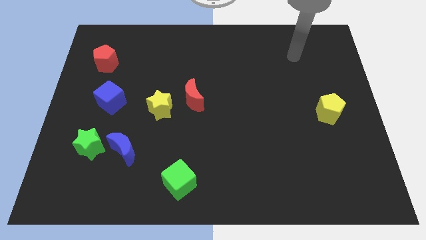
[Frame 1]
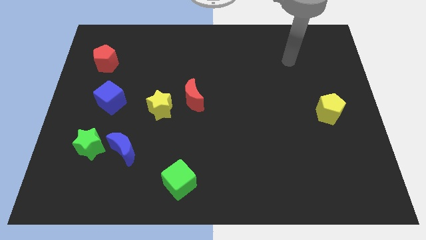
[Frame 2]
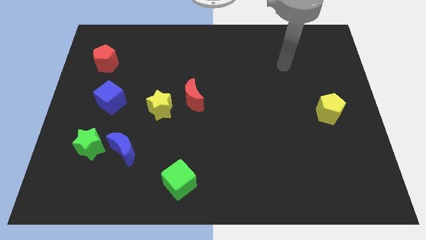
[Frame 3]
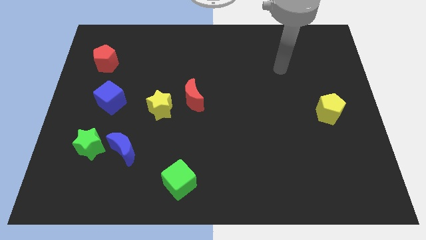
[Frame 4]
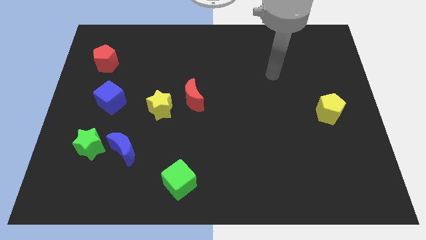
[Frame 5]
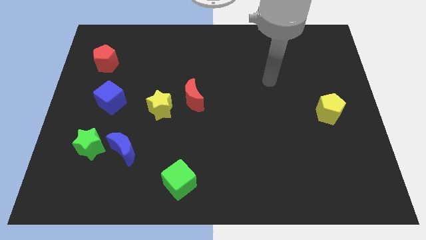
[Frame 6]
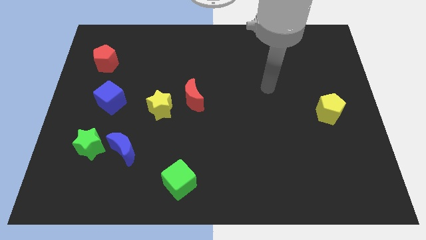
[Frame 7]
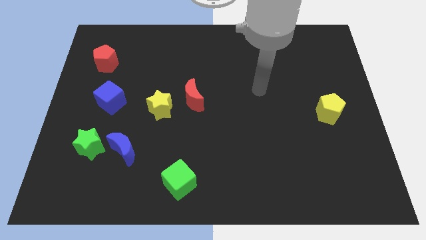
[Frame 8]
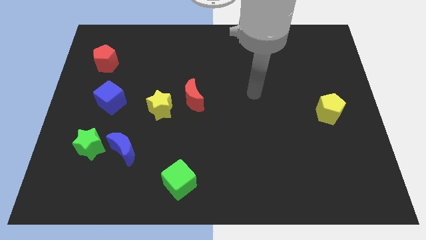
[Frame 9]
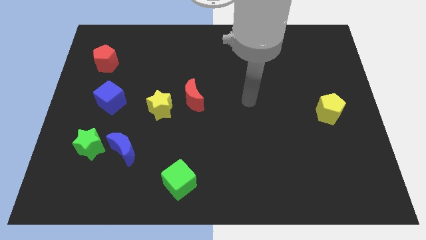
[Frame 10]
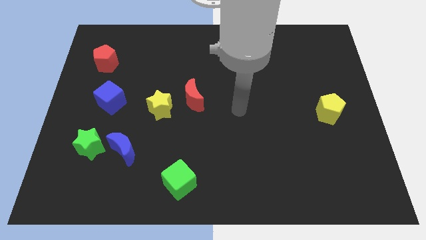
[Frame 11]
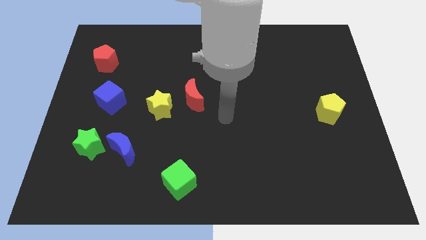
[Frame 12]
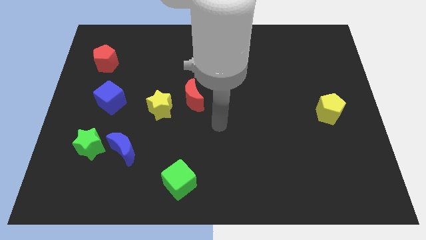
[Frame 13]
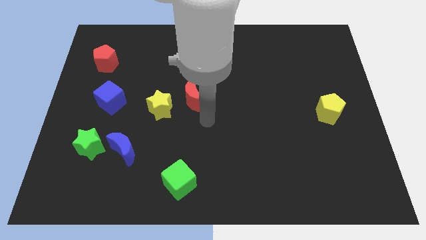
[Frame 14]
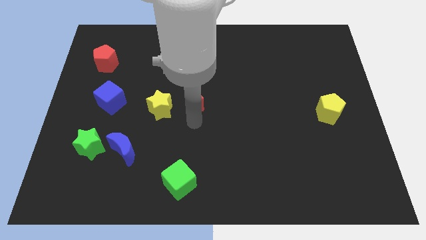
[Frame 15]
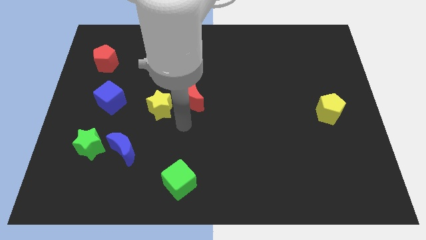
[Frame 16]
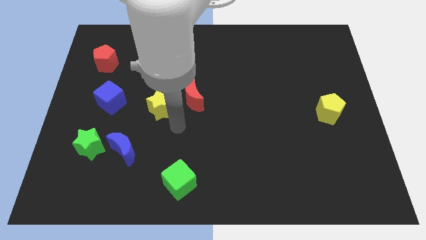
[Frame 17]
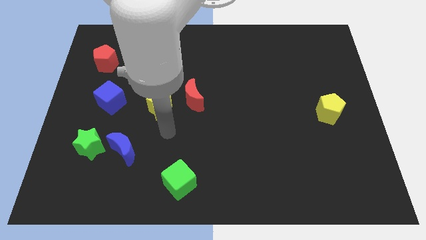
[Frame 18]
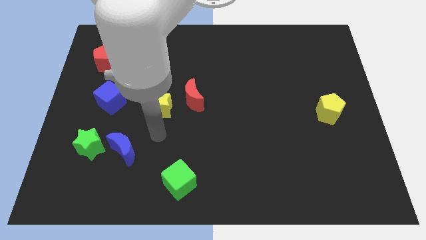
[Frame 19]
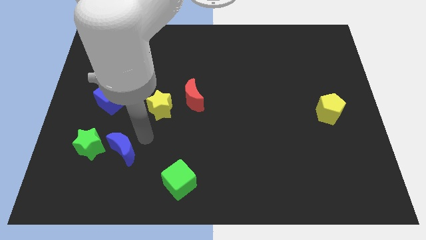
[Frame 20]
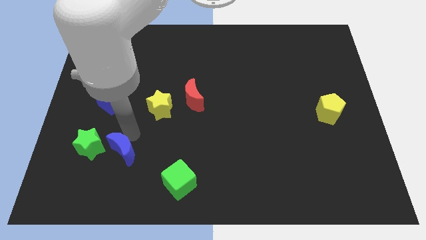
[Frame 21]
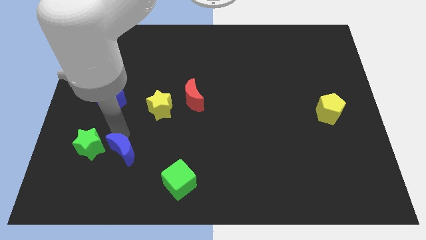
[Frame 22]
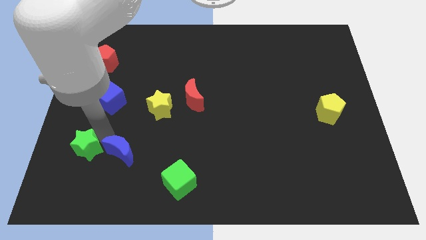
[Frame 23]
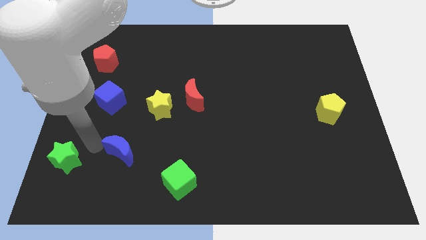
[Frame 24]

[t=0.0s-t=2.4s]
separate the blue moon from the green star

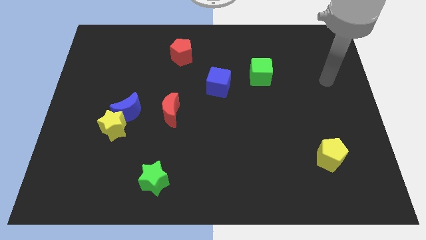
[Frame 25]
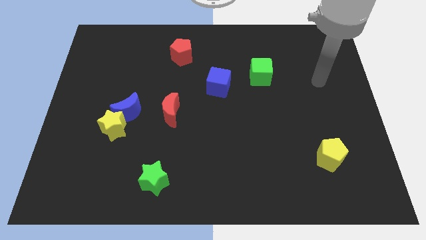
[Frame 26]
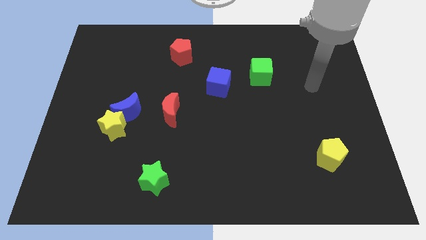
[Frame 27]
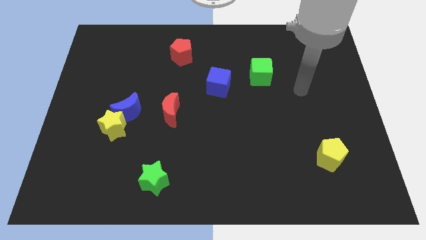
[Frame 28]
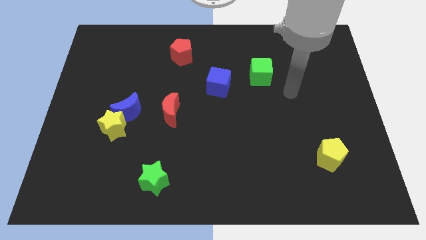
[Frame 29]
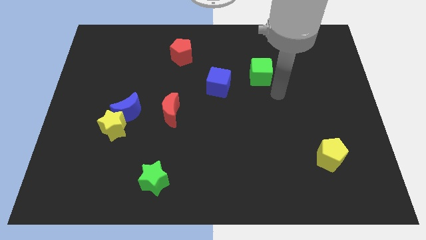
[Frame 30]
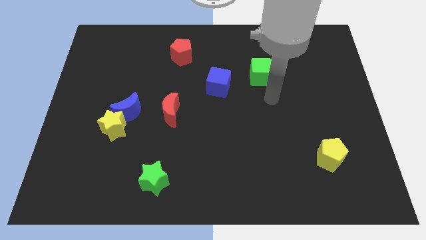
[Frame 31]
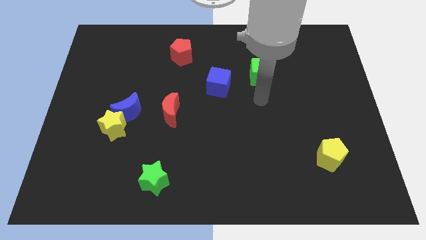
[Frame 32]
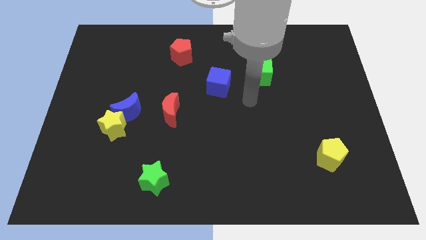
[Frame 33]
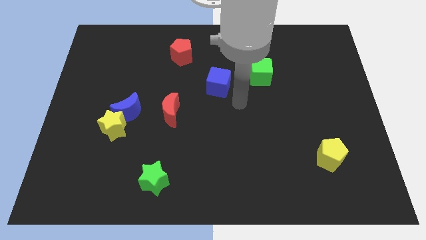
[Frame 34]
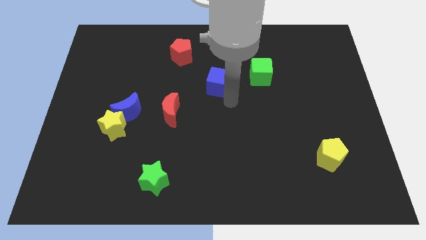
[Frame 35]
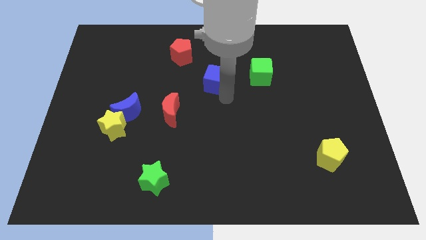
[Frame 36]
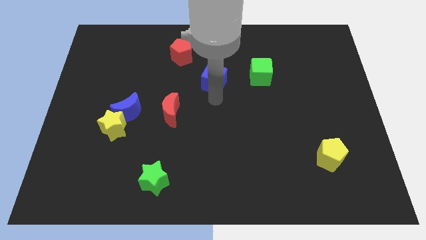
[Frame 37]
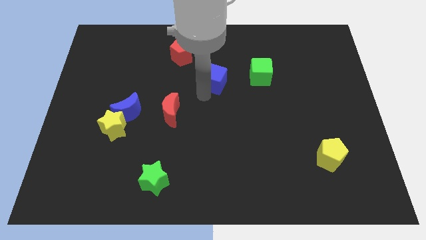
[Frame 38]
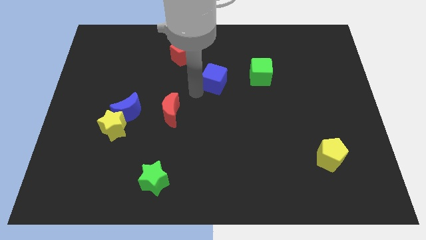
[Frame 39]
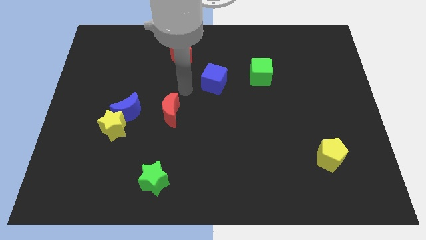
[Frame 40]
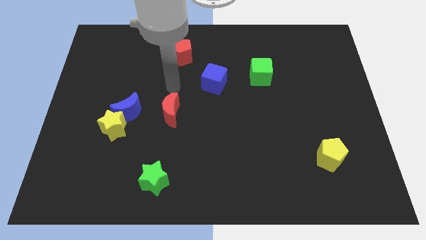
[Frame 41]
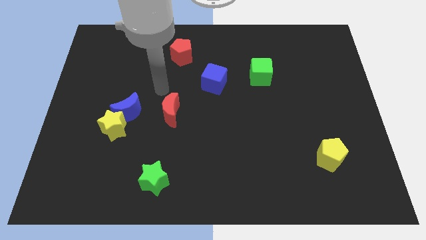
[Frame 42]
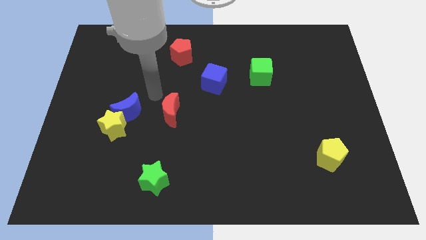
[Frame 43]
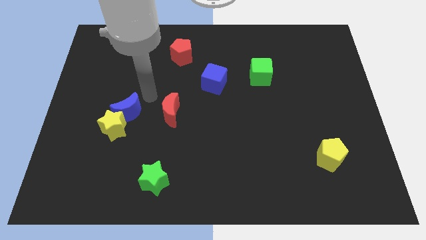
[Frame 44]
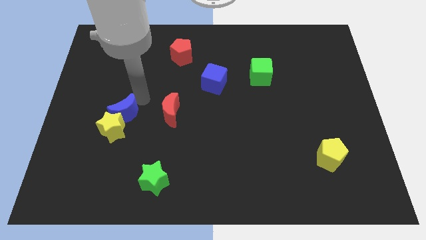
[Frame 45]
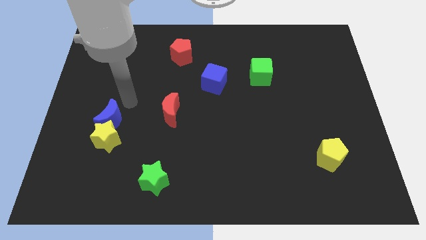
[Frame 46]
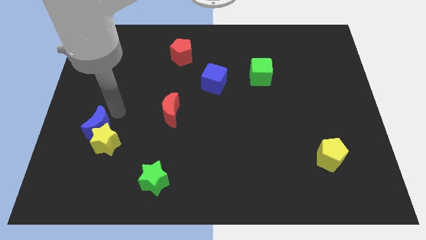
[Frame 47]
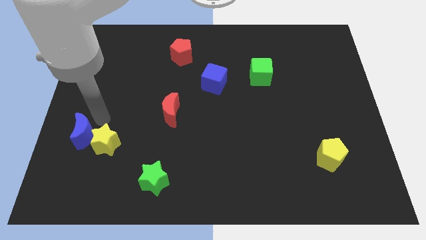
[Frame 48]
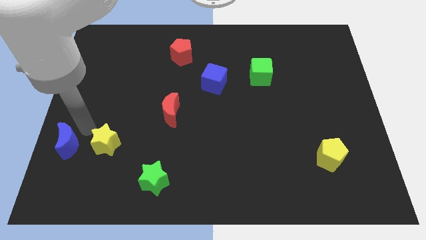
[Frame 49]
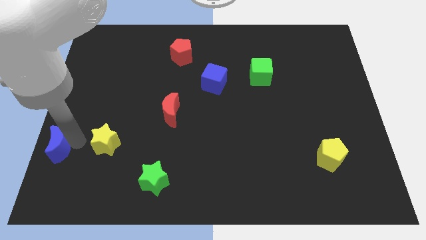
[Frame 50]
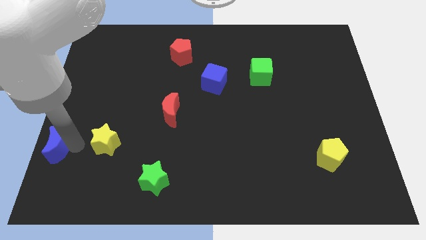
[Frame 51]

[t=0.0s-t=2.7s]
move the yellow star away from the blue moon

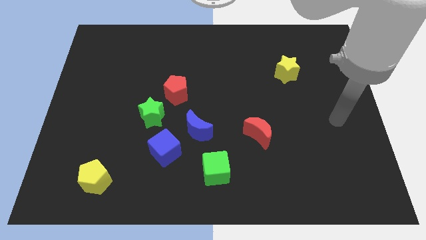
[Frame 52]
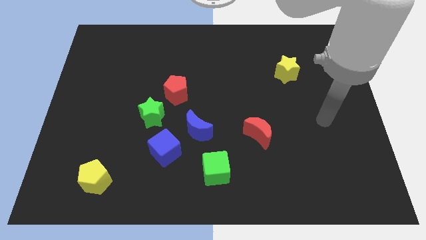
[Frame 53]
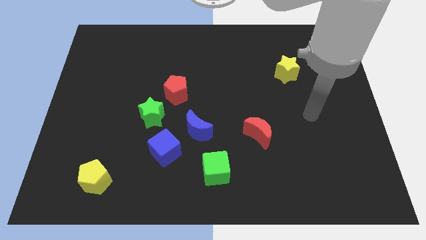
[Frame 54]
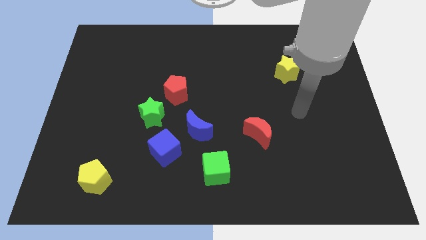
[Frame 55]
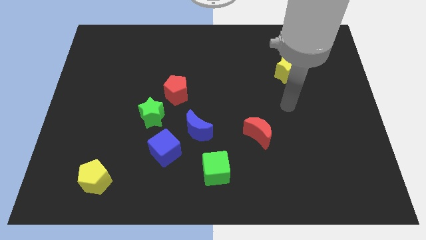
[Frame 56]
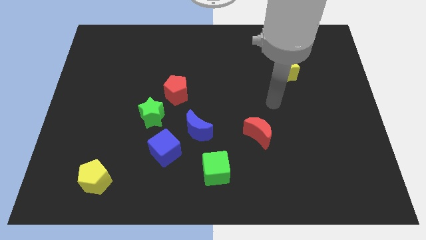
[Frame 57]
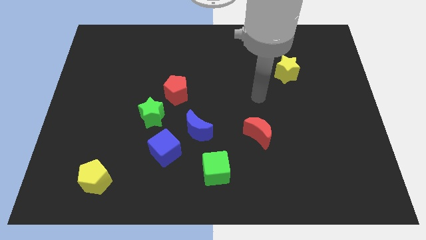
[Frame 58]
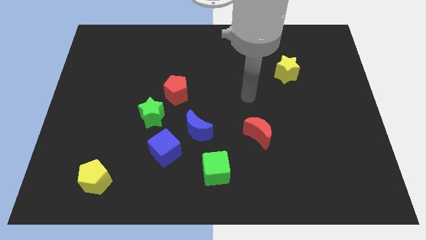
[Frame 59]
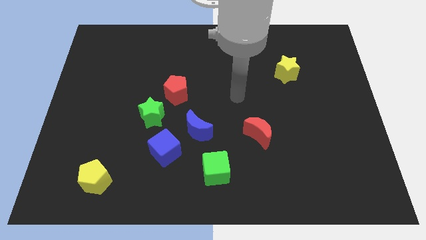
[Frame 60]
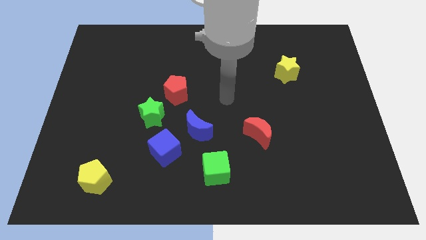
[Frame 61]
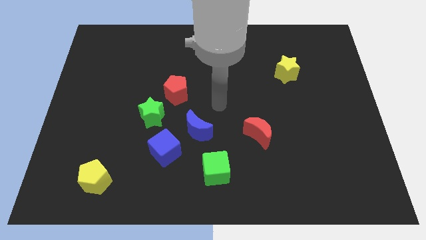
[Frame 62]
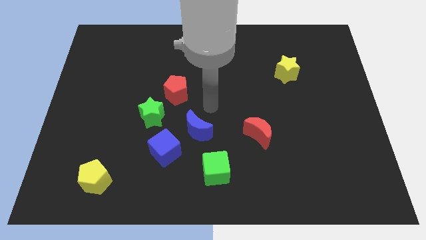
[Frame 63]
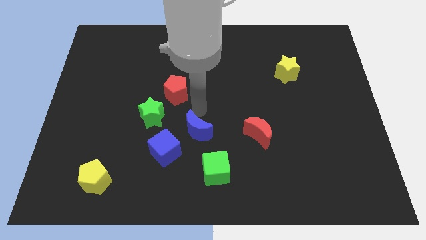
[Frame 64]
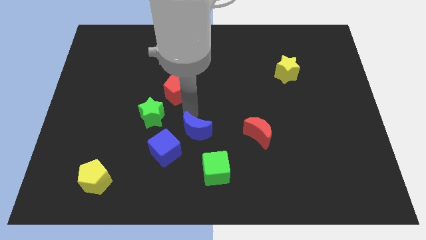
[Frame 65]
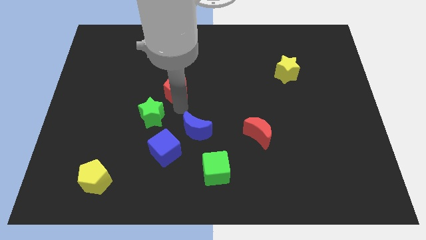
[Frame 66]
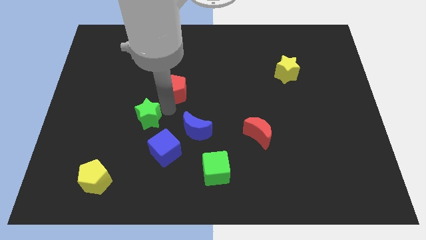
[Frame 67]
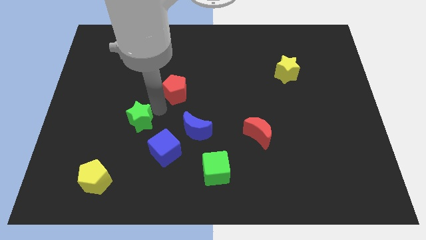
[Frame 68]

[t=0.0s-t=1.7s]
move the red pentagon away from the green star

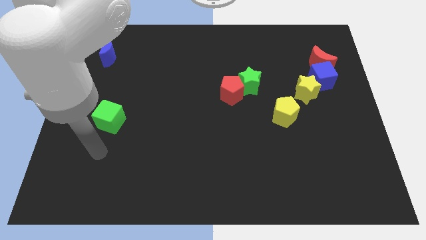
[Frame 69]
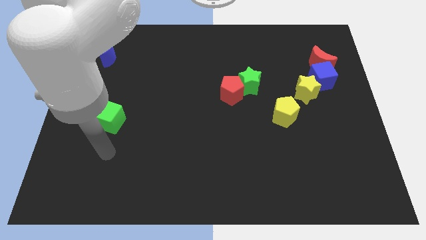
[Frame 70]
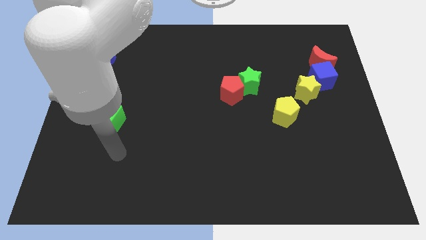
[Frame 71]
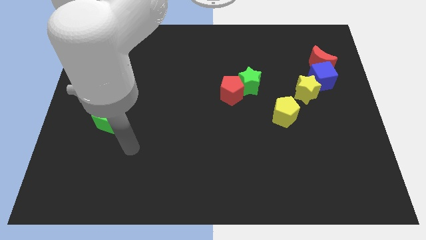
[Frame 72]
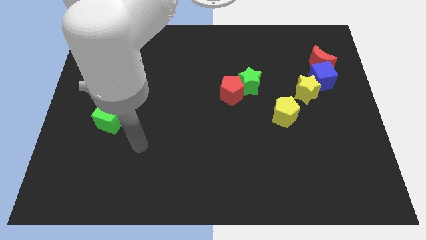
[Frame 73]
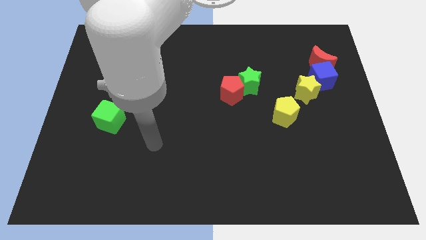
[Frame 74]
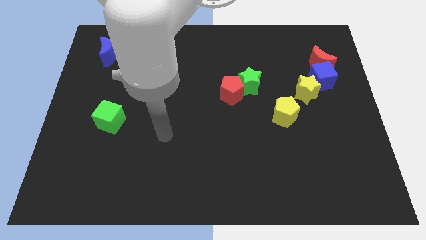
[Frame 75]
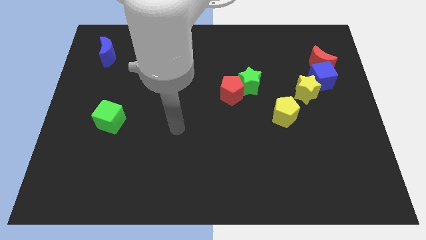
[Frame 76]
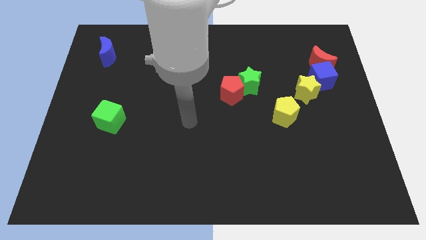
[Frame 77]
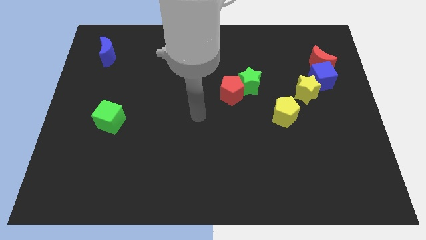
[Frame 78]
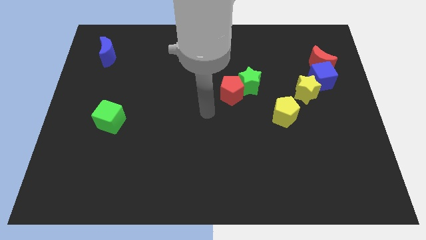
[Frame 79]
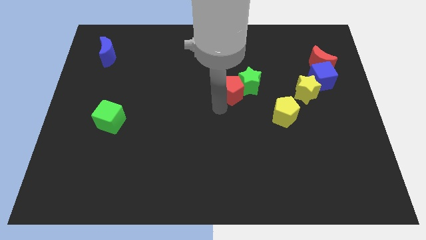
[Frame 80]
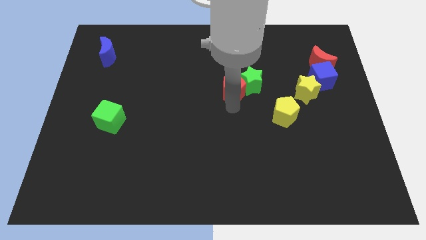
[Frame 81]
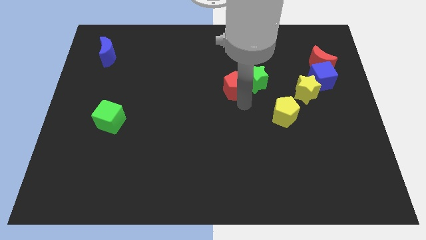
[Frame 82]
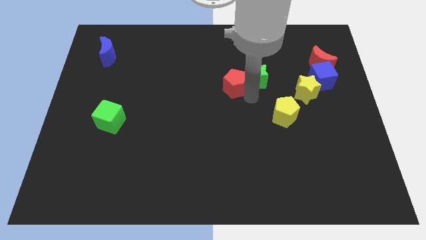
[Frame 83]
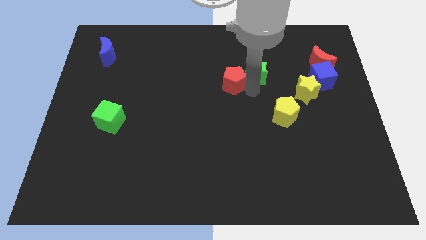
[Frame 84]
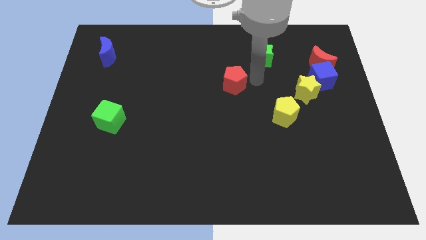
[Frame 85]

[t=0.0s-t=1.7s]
pull the red pentagon apart from the green star

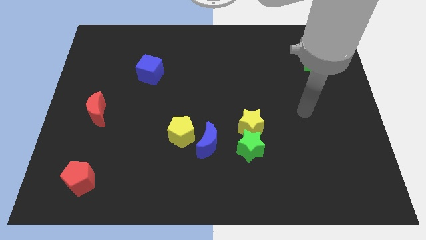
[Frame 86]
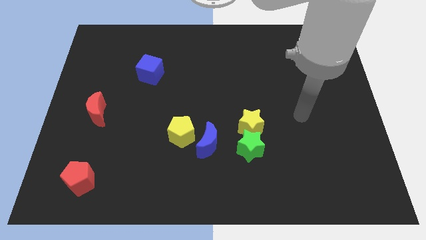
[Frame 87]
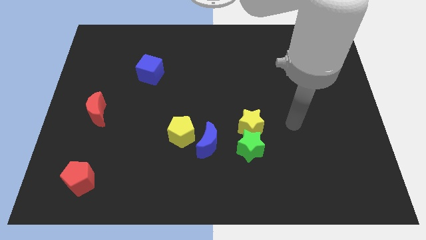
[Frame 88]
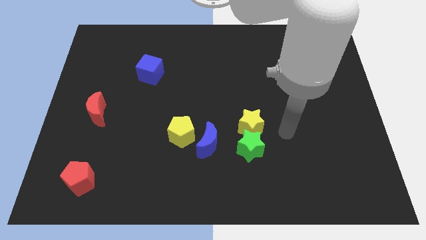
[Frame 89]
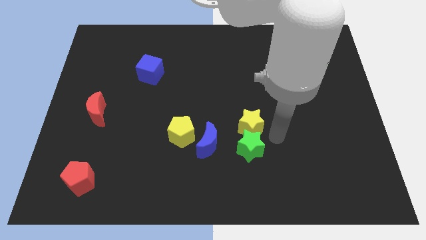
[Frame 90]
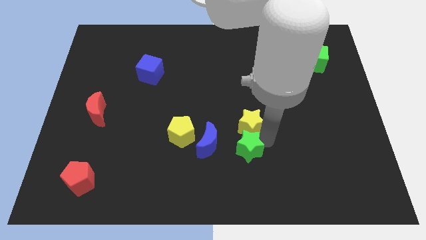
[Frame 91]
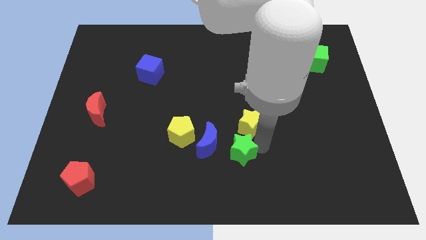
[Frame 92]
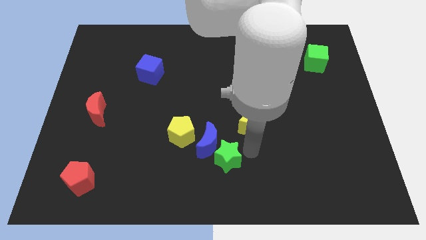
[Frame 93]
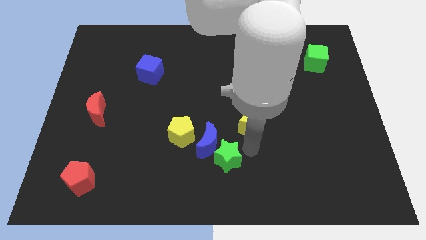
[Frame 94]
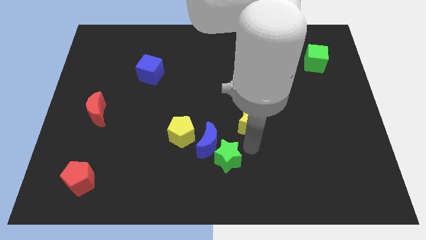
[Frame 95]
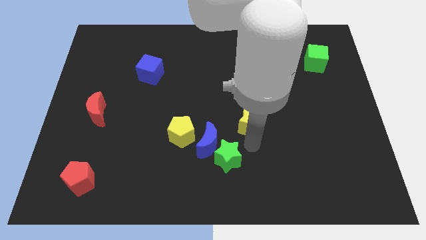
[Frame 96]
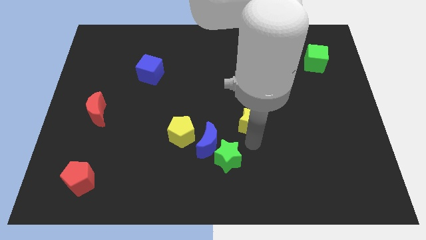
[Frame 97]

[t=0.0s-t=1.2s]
separate the yellow star from the green star
